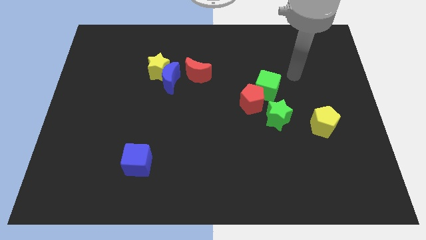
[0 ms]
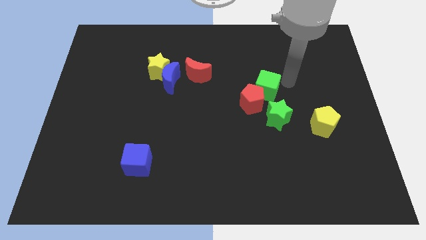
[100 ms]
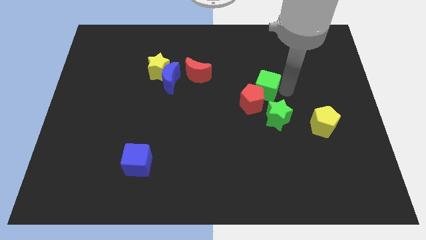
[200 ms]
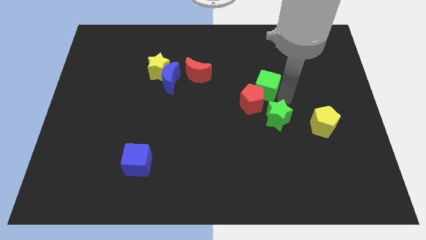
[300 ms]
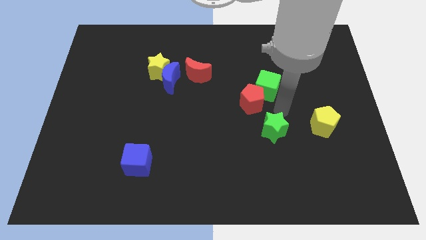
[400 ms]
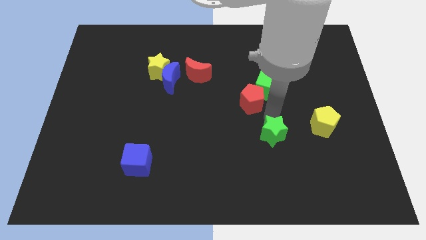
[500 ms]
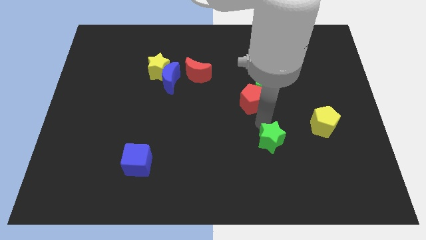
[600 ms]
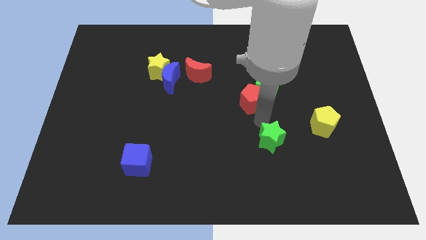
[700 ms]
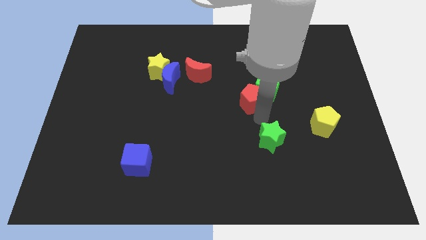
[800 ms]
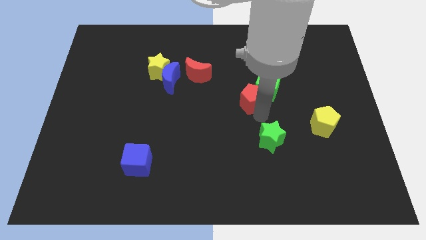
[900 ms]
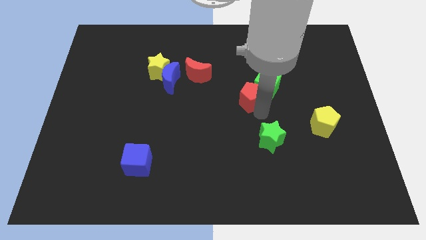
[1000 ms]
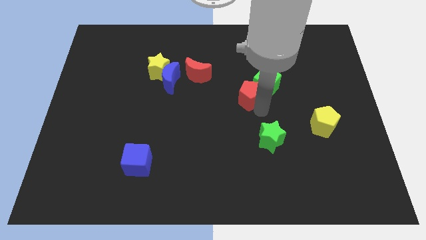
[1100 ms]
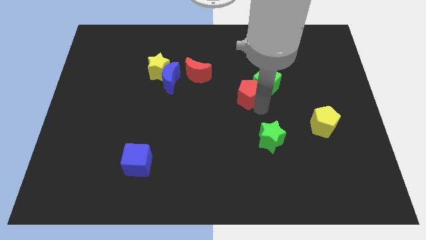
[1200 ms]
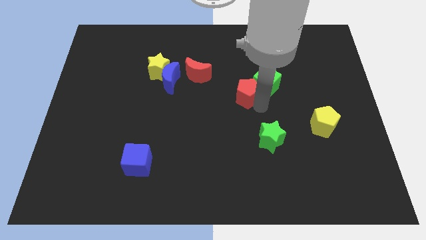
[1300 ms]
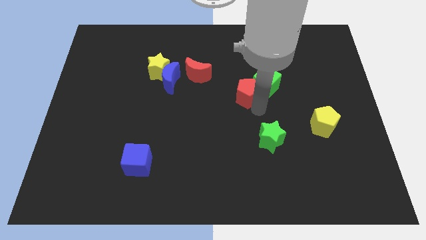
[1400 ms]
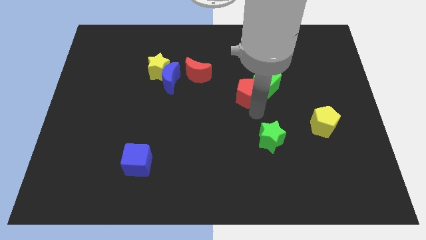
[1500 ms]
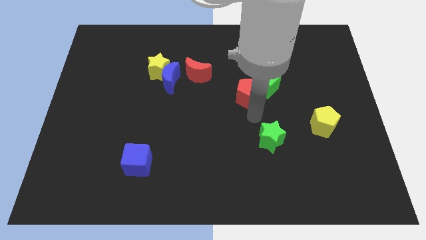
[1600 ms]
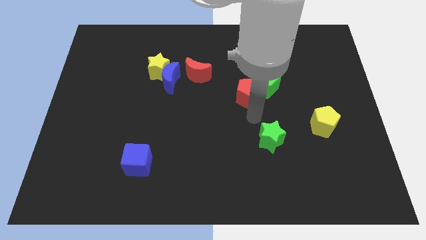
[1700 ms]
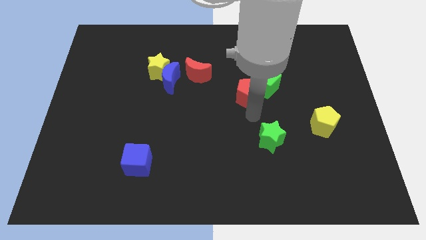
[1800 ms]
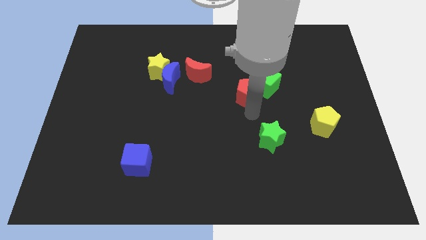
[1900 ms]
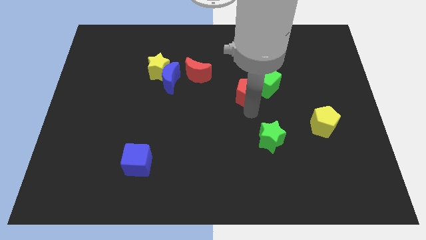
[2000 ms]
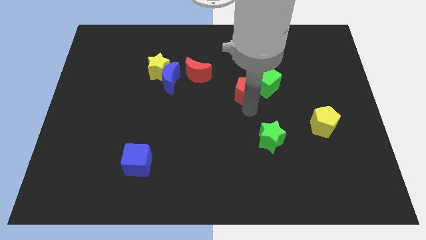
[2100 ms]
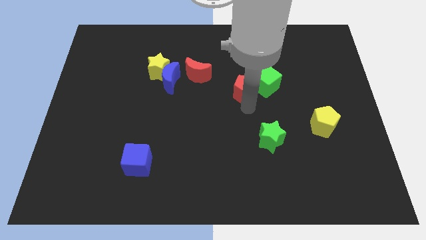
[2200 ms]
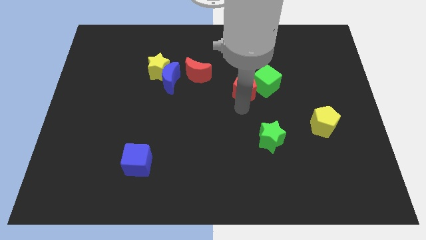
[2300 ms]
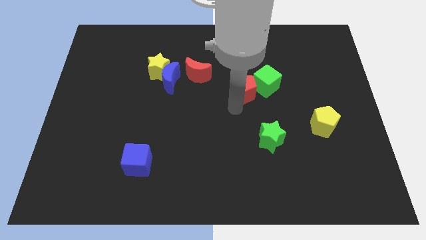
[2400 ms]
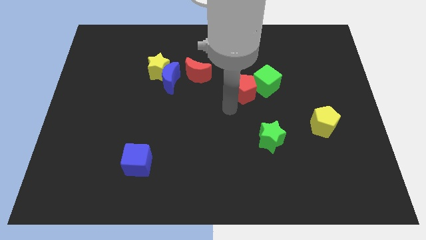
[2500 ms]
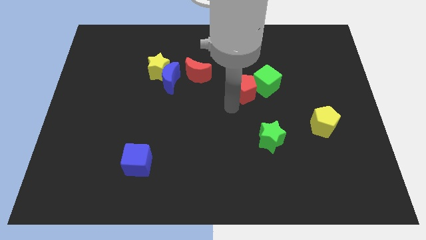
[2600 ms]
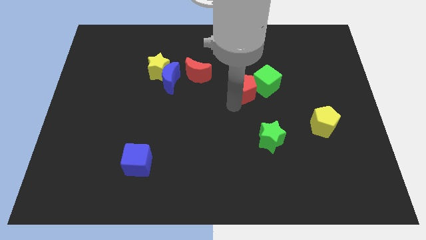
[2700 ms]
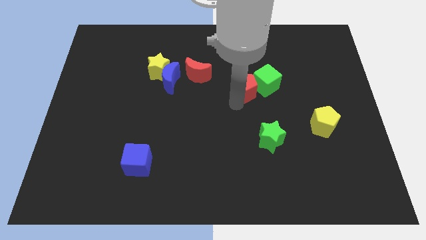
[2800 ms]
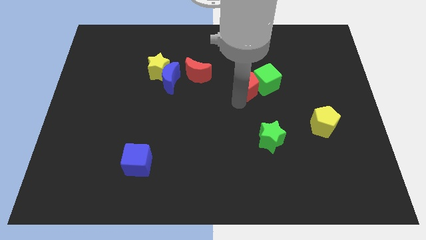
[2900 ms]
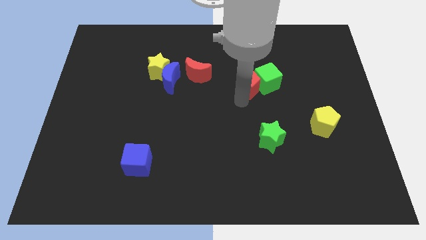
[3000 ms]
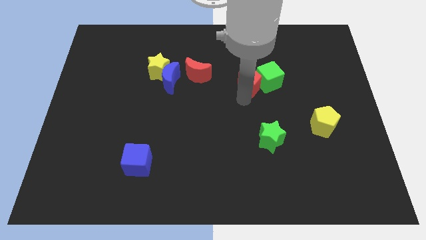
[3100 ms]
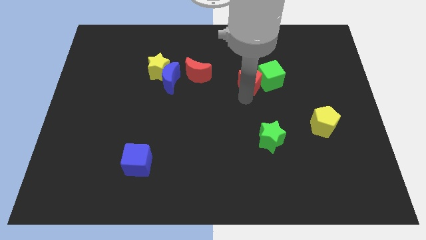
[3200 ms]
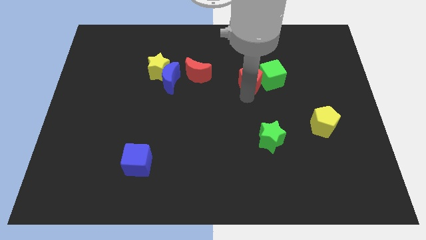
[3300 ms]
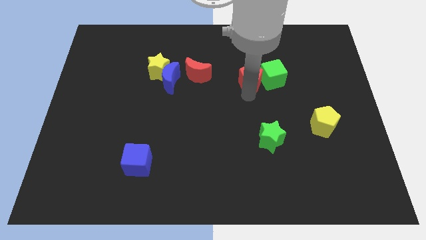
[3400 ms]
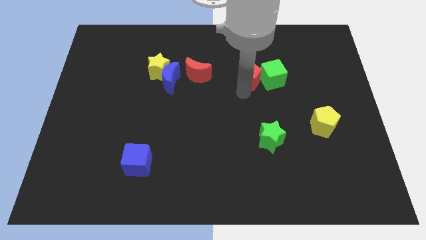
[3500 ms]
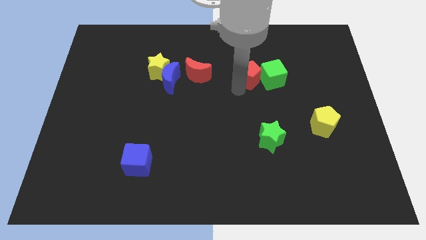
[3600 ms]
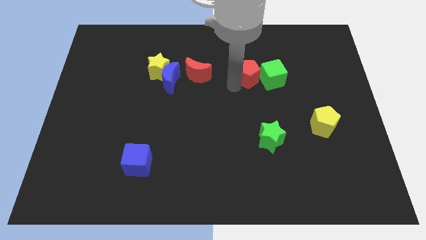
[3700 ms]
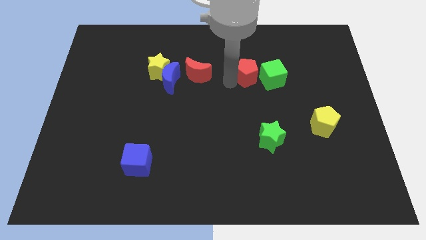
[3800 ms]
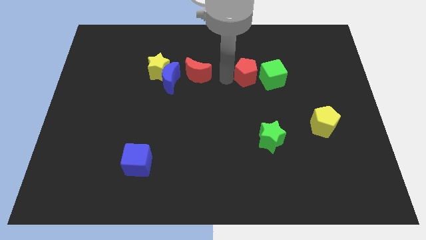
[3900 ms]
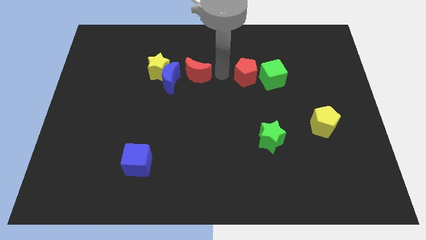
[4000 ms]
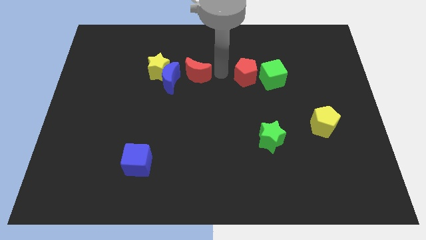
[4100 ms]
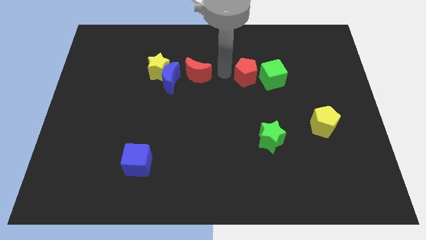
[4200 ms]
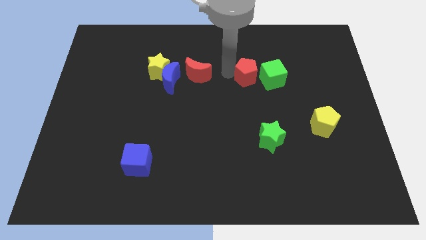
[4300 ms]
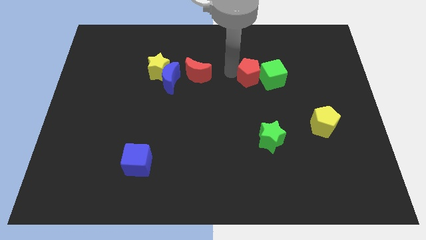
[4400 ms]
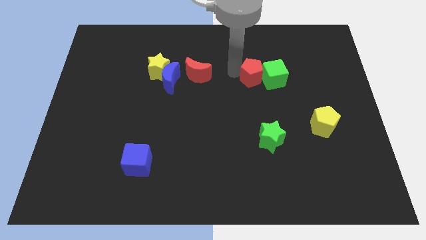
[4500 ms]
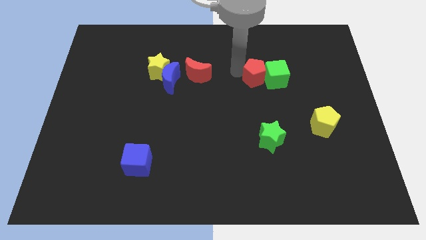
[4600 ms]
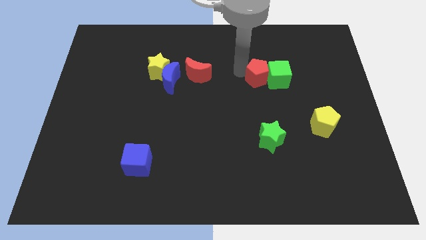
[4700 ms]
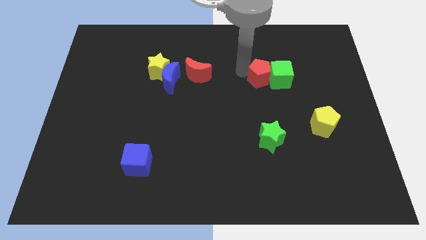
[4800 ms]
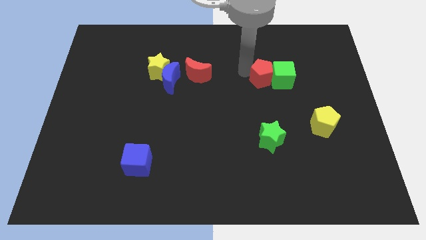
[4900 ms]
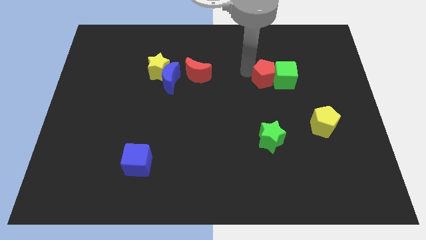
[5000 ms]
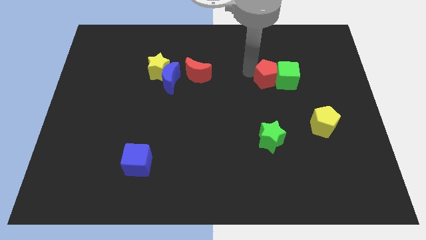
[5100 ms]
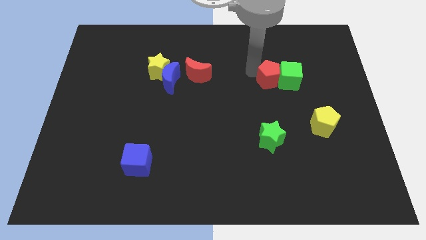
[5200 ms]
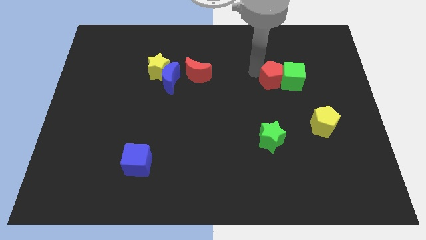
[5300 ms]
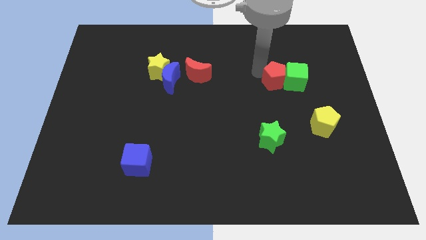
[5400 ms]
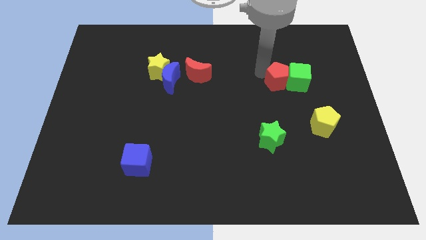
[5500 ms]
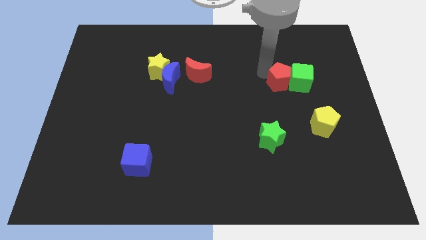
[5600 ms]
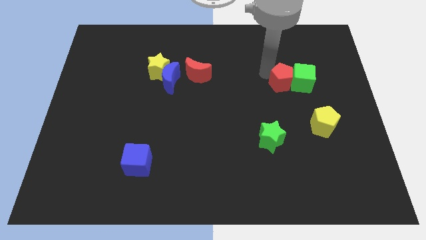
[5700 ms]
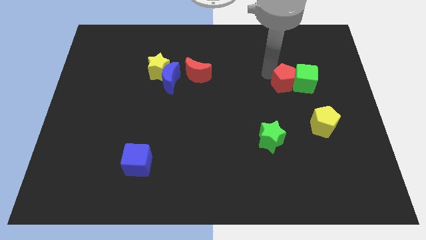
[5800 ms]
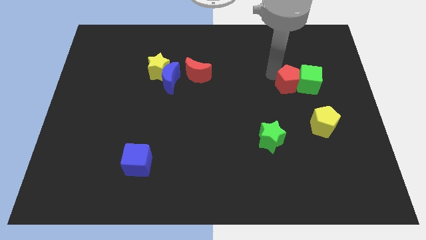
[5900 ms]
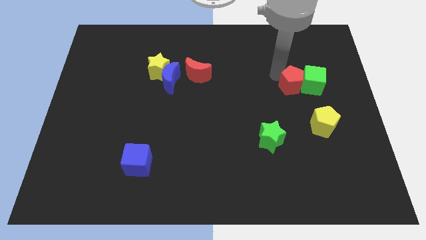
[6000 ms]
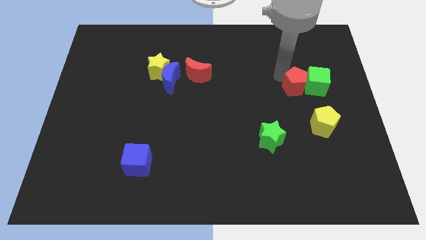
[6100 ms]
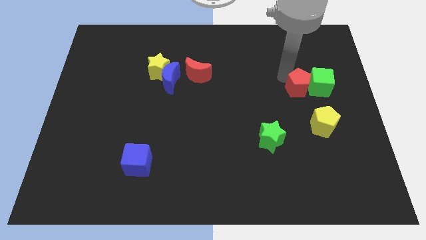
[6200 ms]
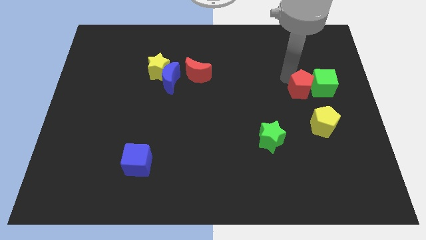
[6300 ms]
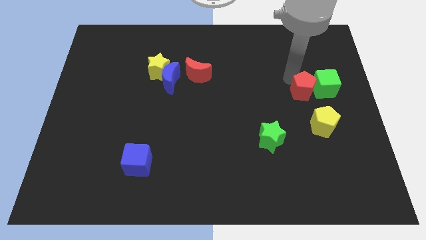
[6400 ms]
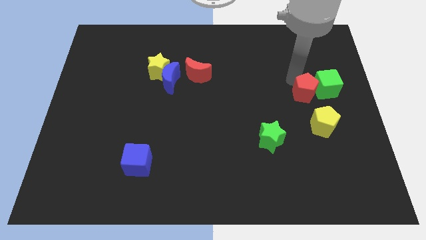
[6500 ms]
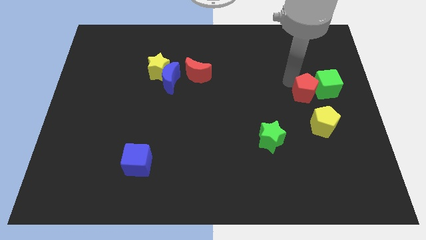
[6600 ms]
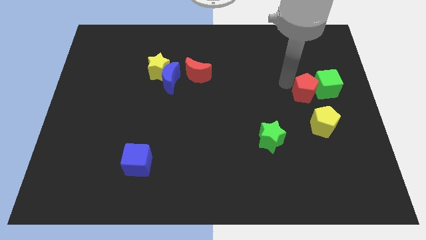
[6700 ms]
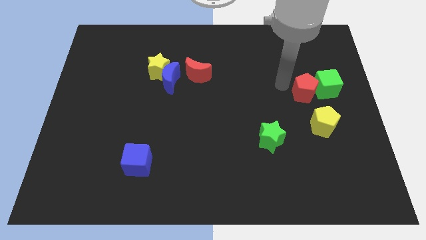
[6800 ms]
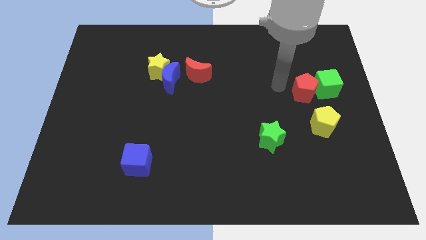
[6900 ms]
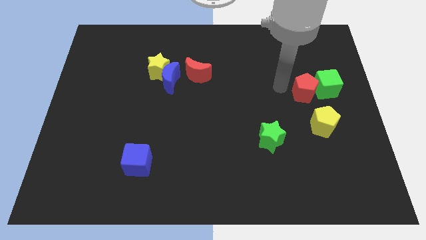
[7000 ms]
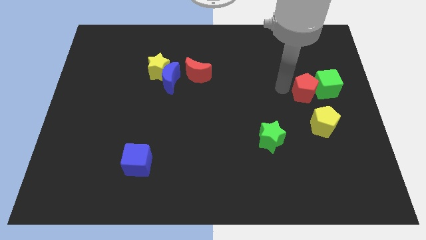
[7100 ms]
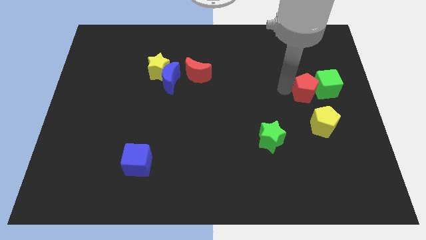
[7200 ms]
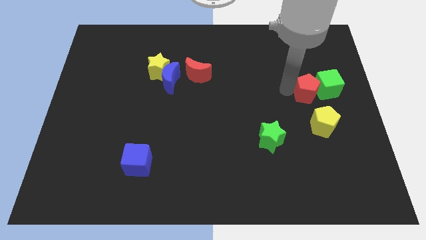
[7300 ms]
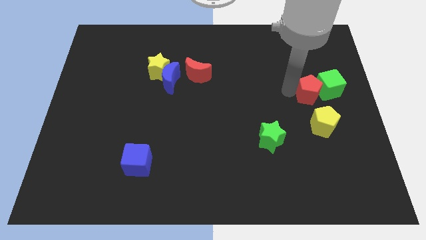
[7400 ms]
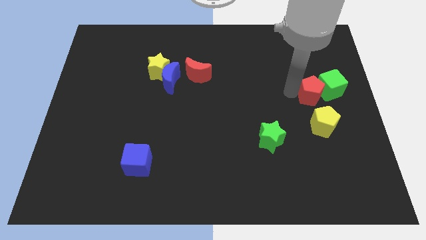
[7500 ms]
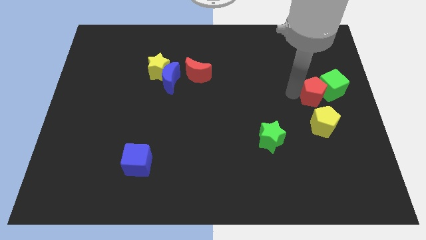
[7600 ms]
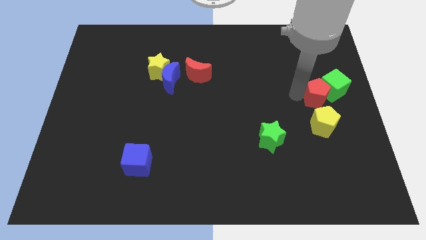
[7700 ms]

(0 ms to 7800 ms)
move the red pentagon to the center right
